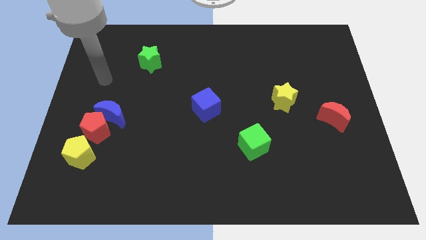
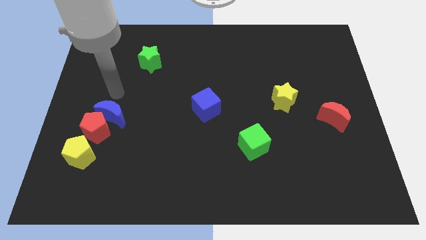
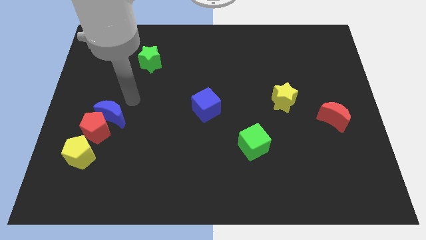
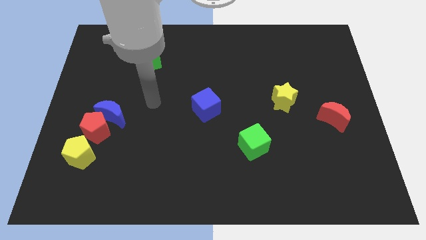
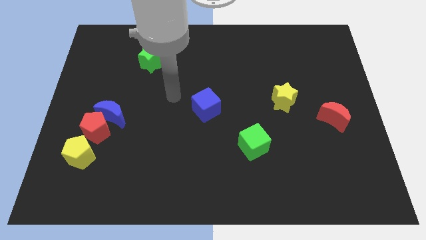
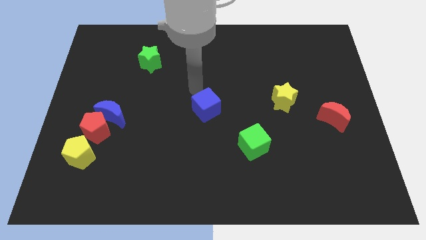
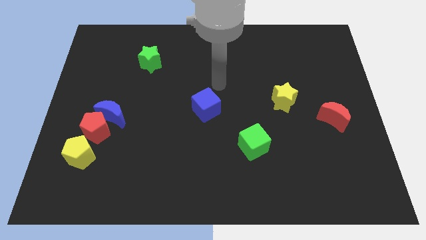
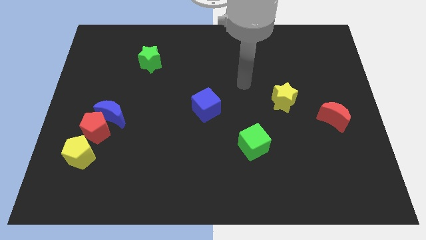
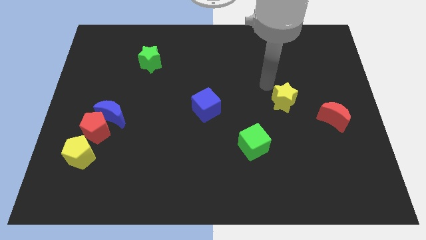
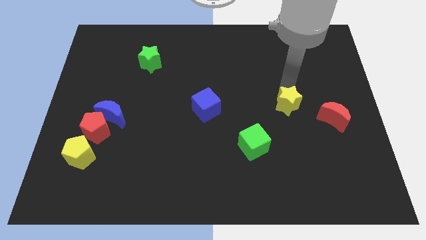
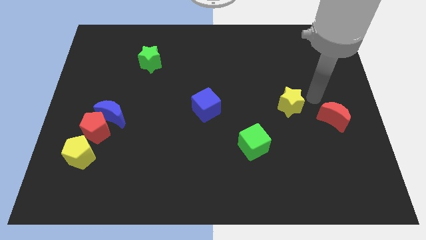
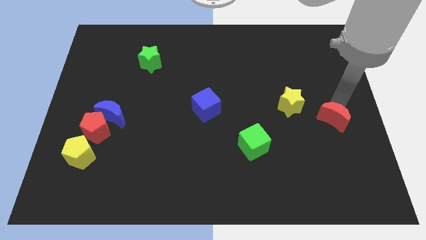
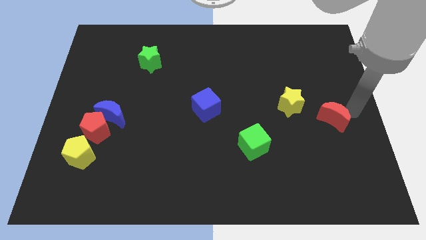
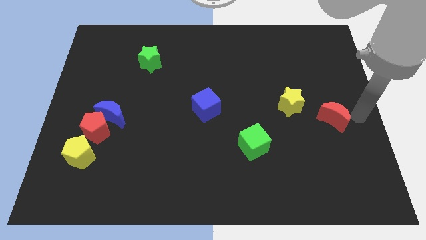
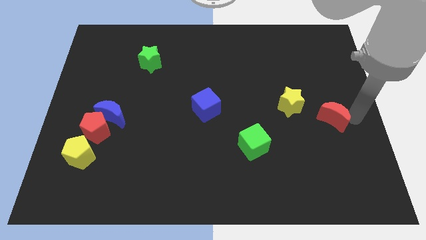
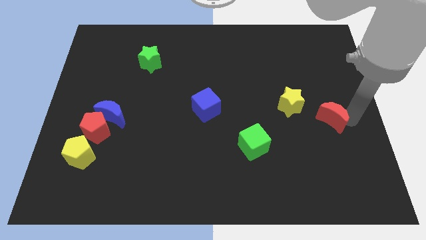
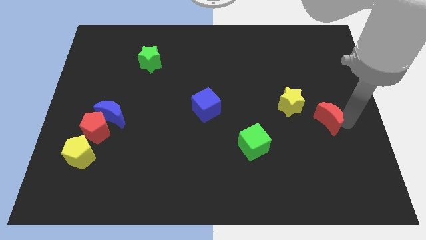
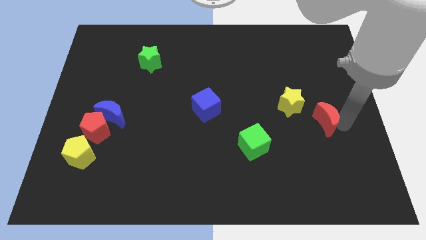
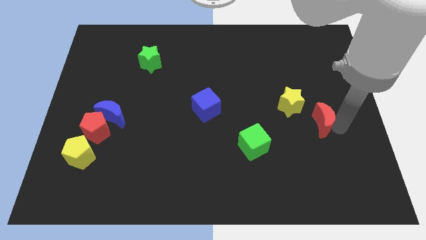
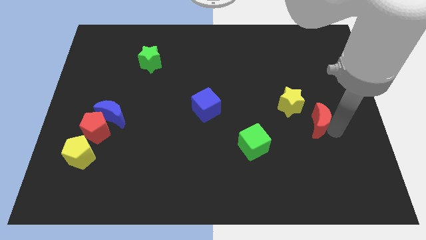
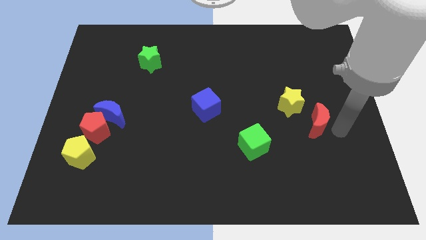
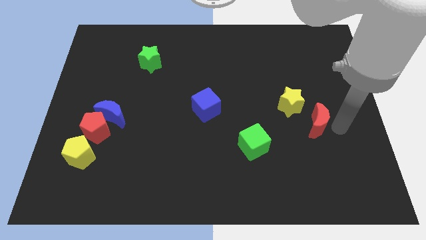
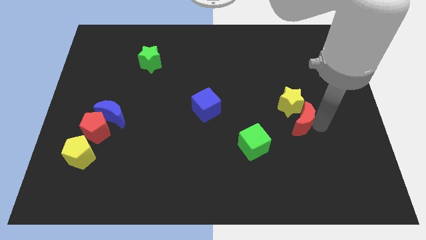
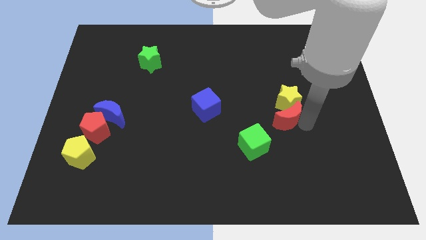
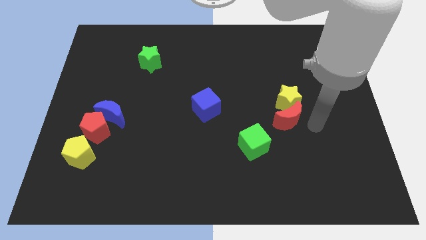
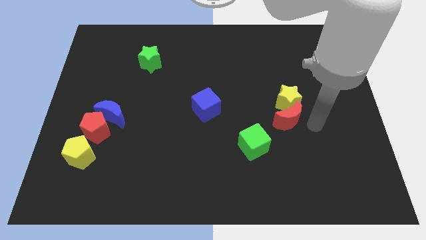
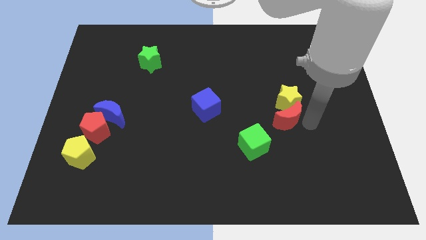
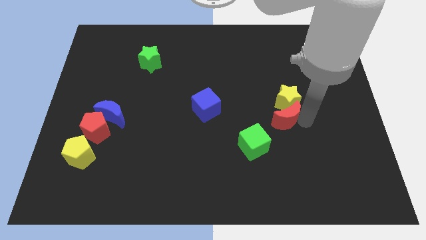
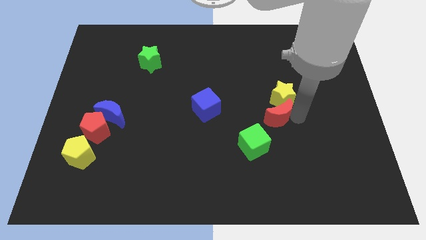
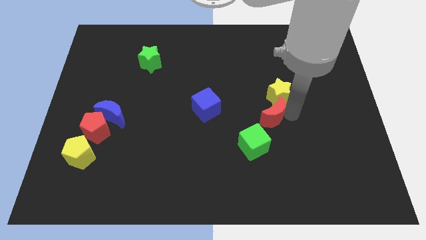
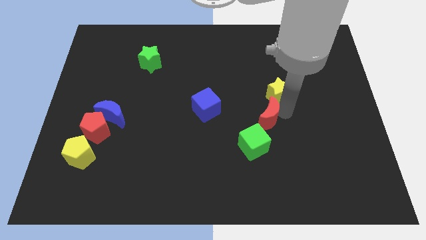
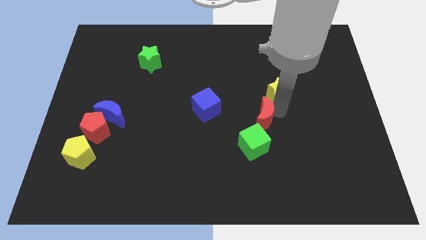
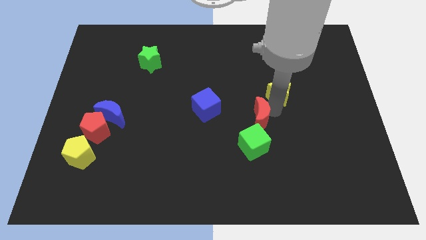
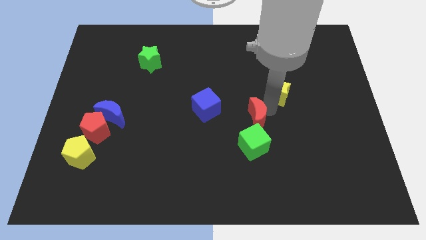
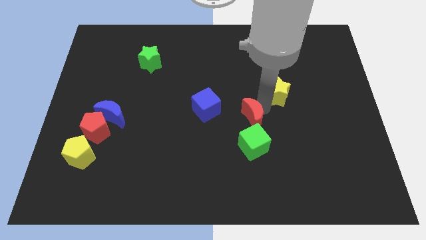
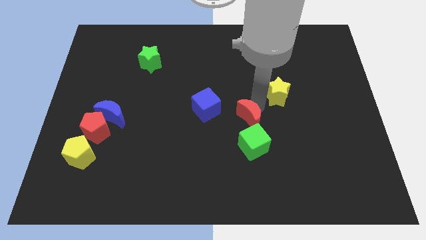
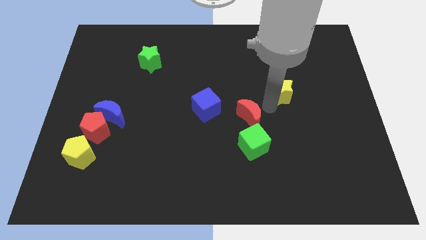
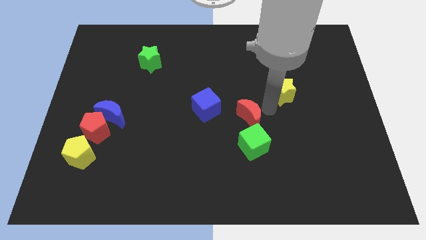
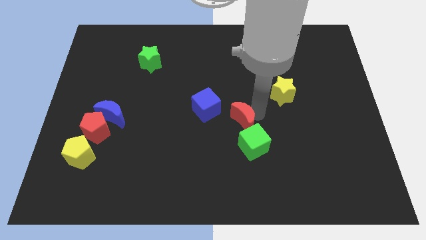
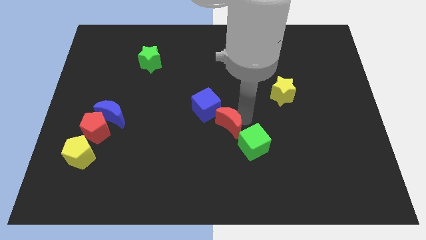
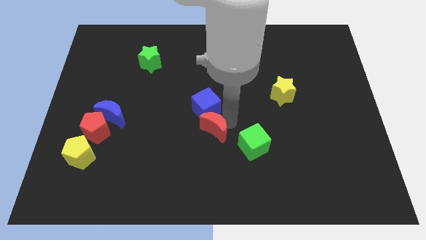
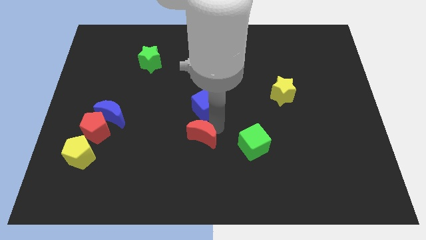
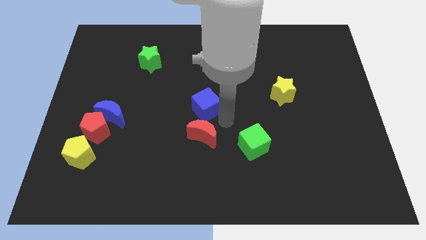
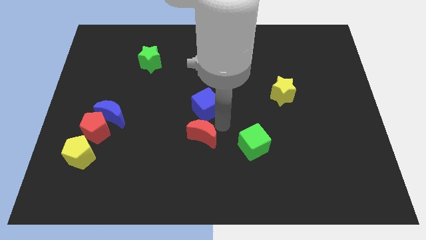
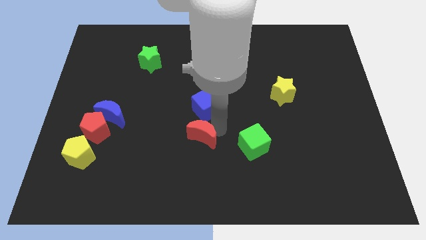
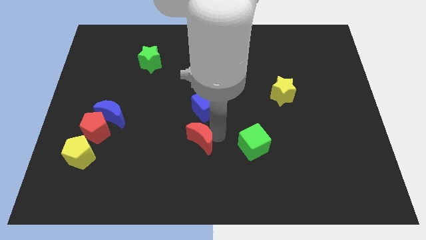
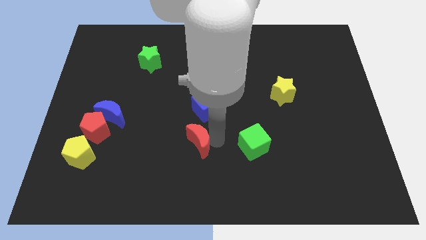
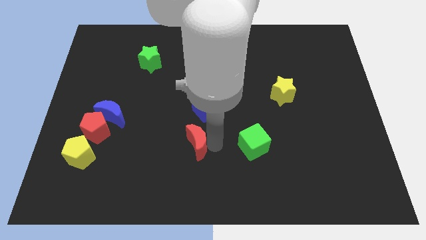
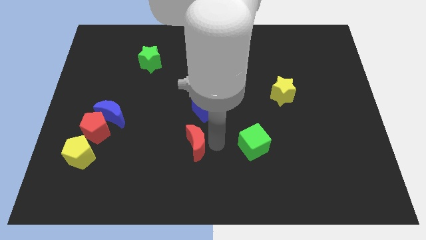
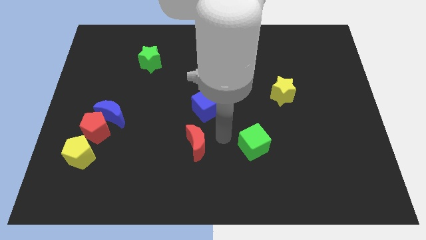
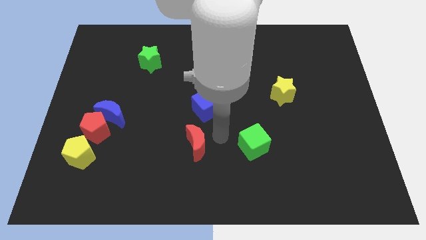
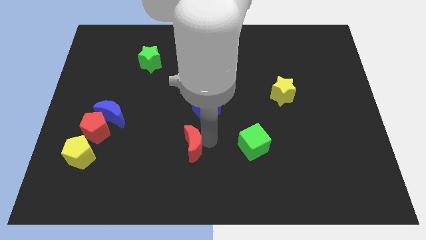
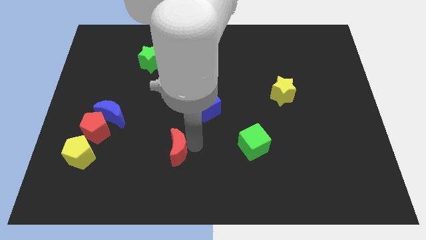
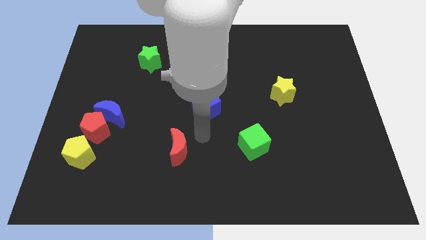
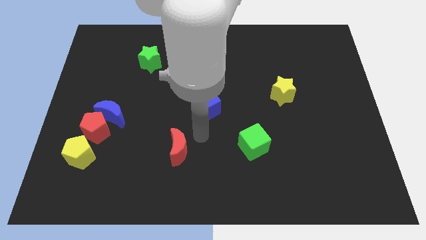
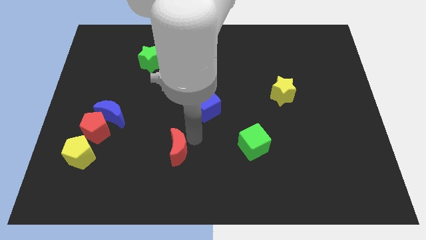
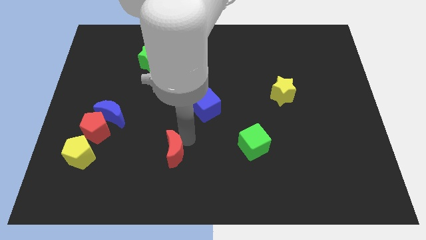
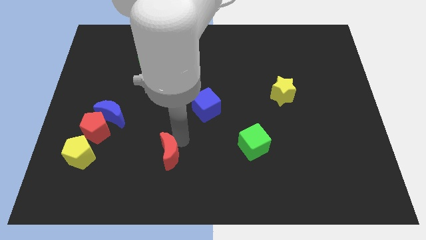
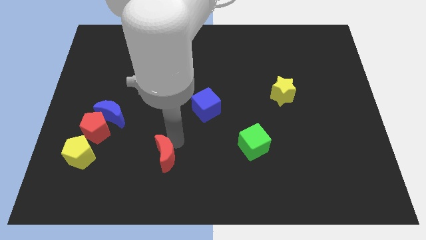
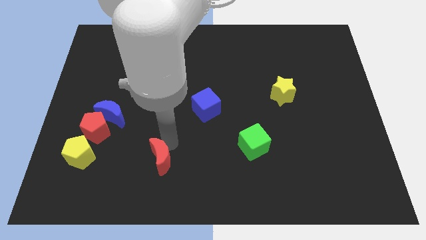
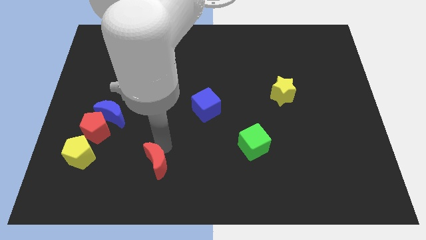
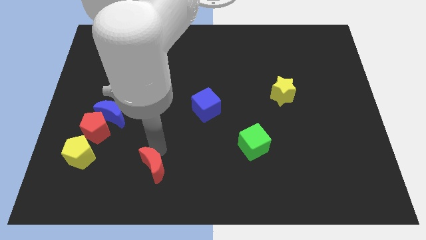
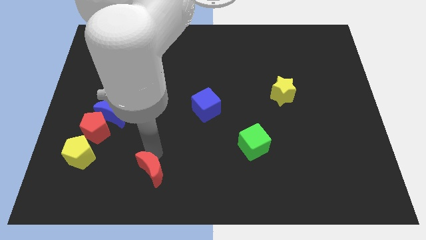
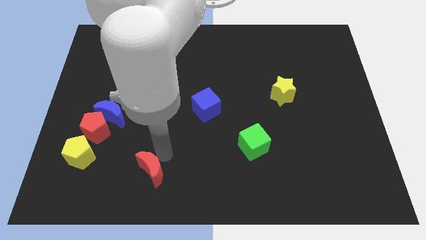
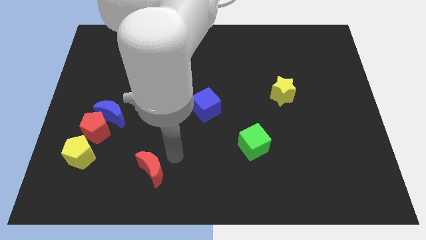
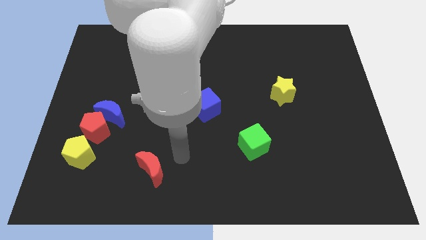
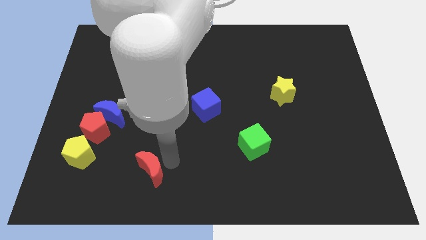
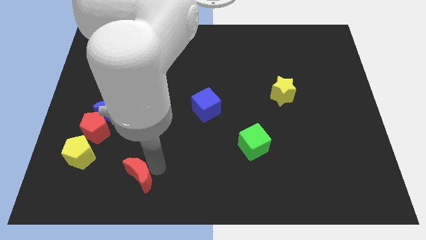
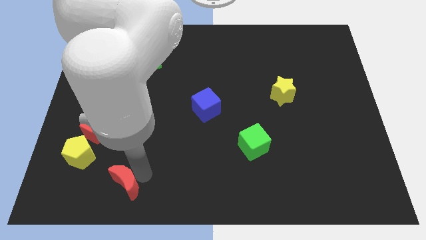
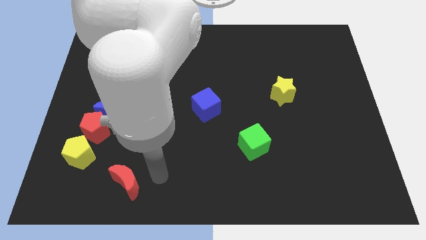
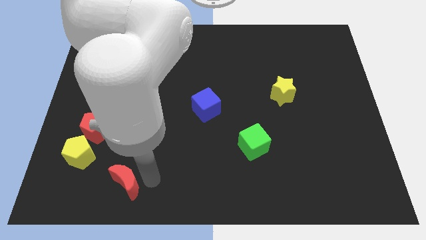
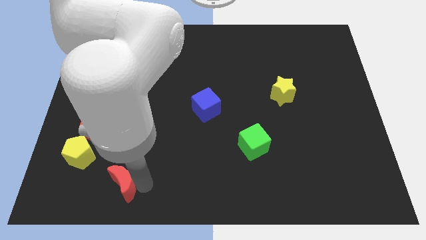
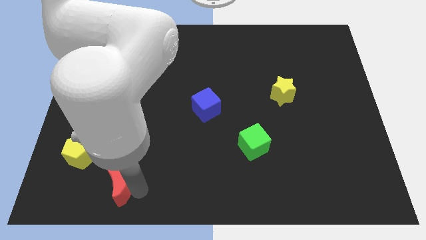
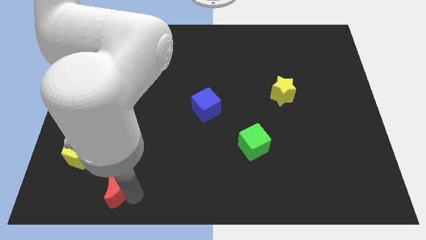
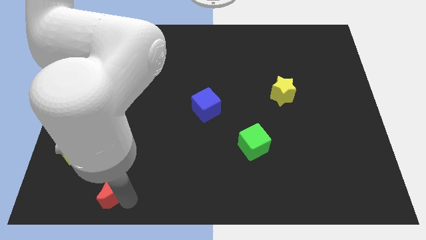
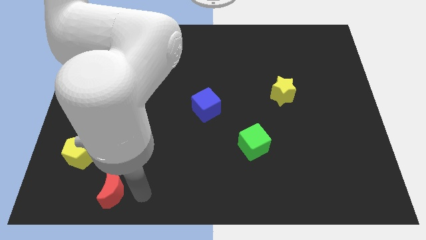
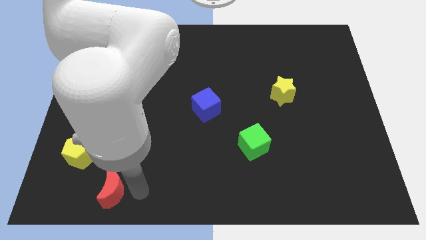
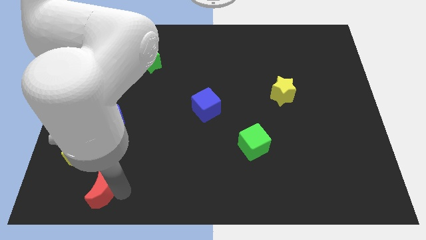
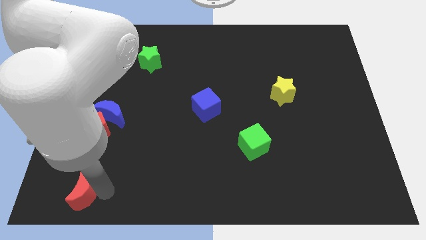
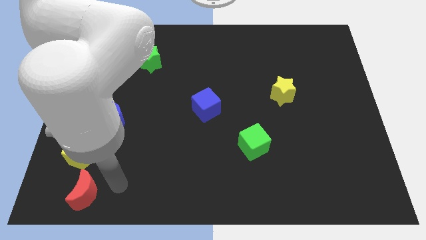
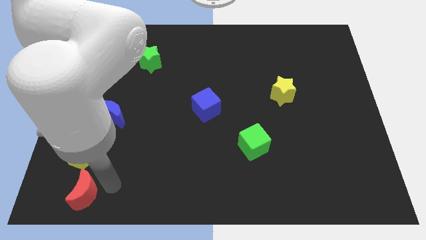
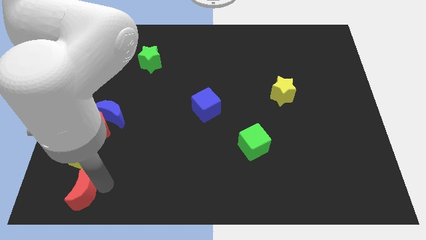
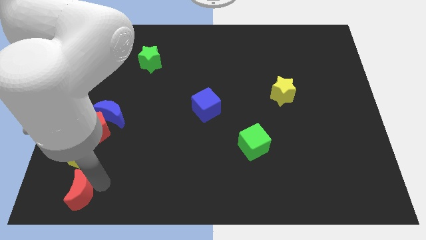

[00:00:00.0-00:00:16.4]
move the red moon to the bottom left corner
